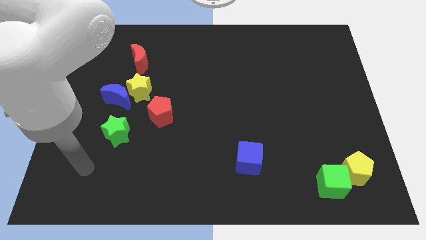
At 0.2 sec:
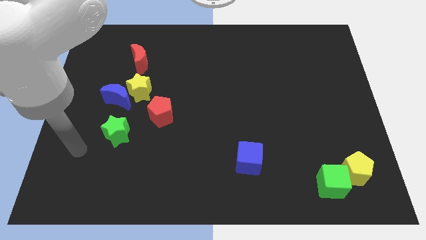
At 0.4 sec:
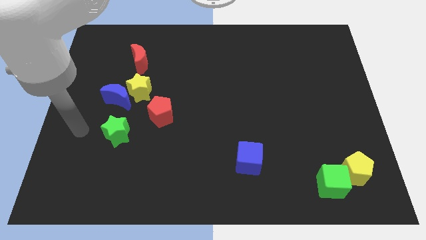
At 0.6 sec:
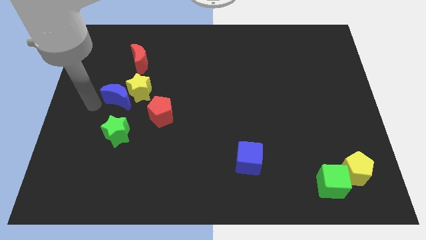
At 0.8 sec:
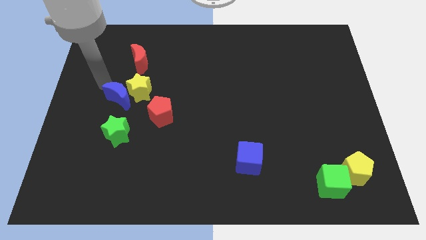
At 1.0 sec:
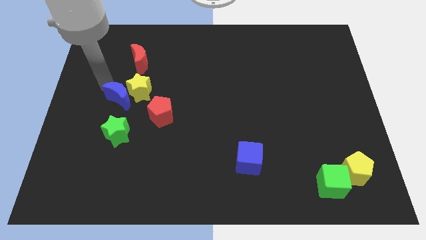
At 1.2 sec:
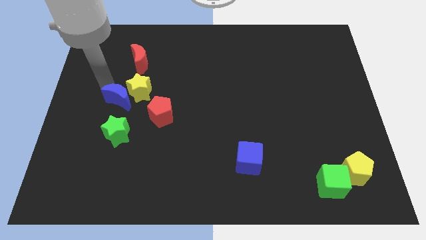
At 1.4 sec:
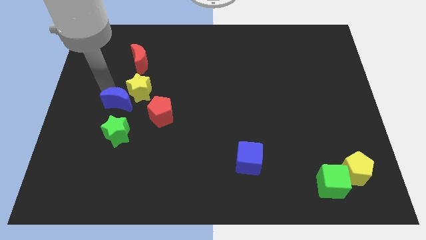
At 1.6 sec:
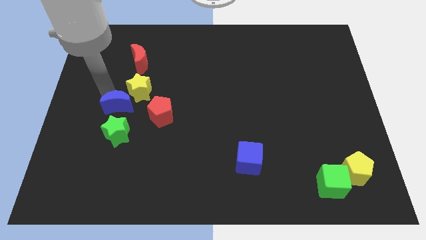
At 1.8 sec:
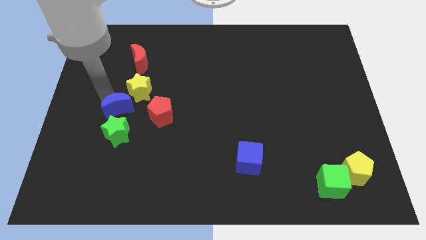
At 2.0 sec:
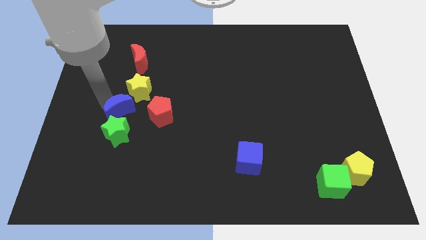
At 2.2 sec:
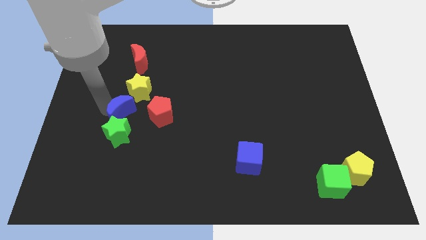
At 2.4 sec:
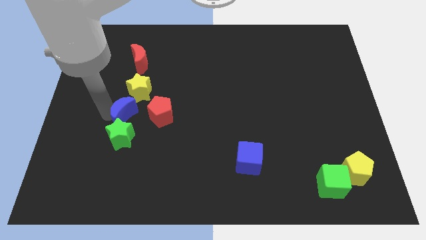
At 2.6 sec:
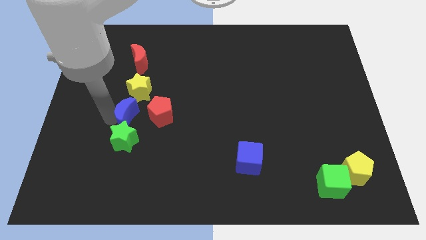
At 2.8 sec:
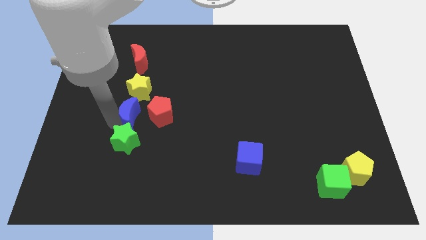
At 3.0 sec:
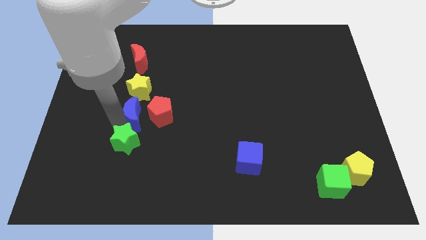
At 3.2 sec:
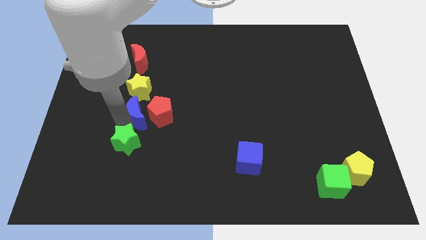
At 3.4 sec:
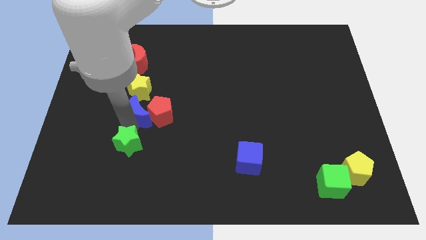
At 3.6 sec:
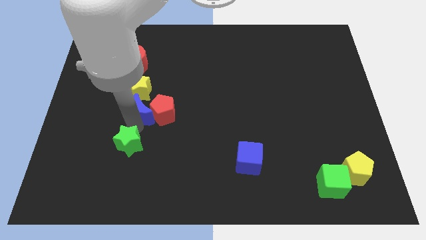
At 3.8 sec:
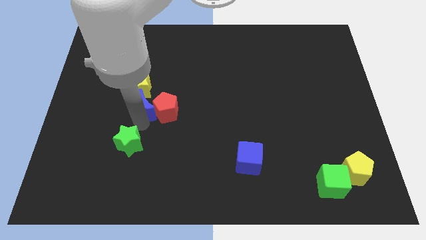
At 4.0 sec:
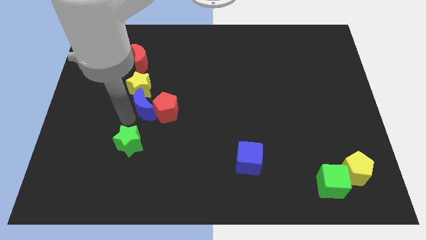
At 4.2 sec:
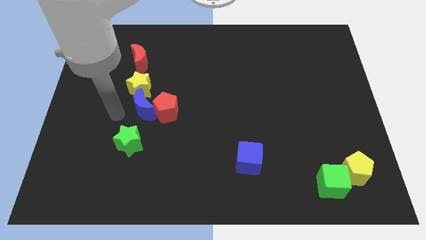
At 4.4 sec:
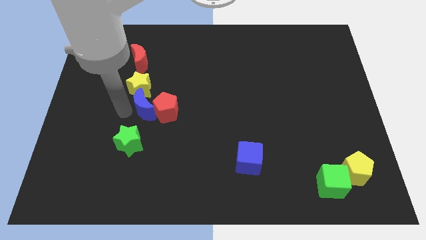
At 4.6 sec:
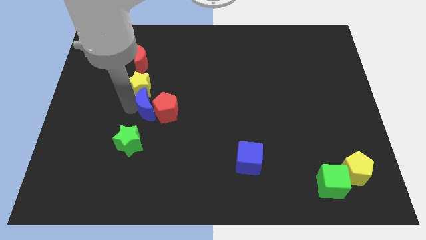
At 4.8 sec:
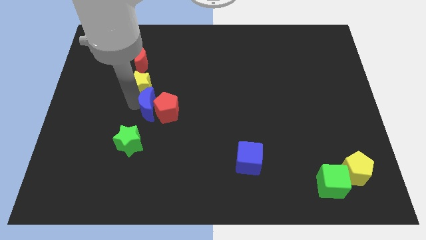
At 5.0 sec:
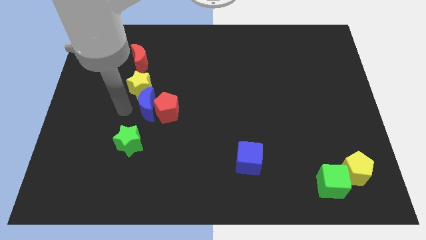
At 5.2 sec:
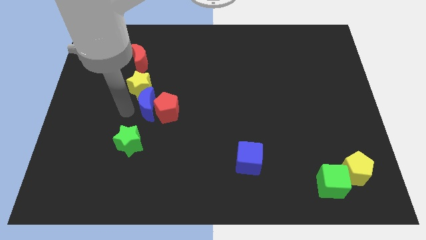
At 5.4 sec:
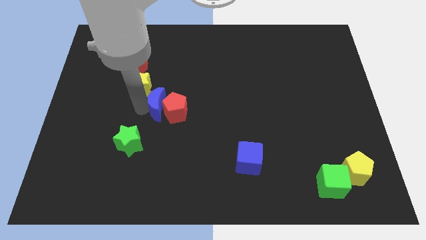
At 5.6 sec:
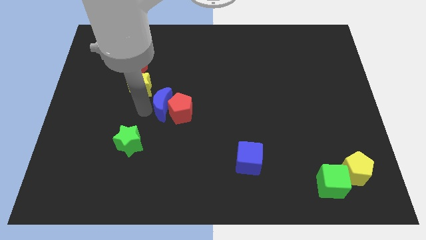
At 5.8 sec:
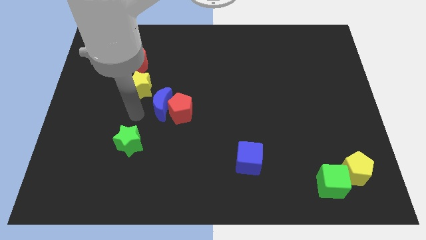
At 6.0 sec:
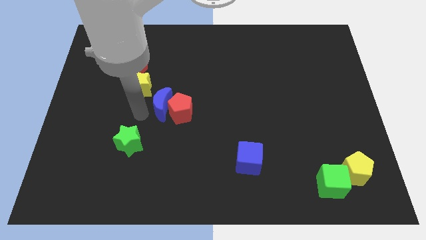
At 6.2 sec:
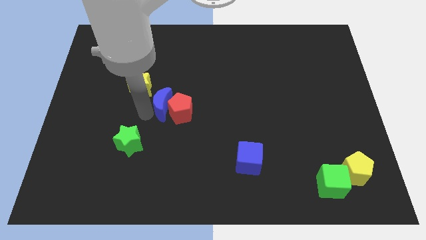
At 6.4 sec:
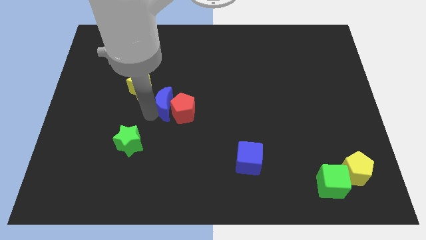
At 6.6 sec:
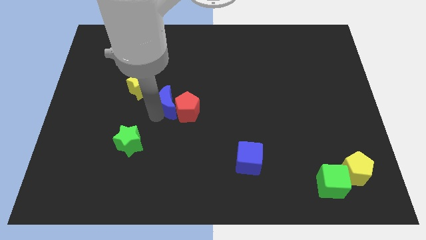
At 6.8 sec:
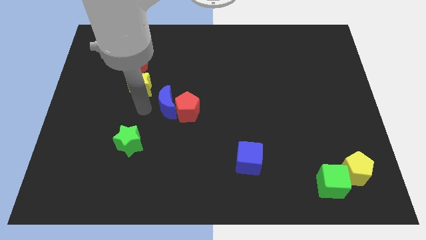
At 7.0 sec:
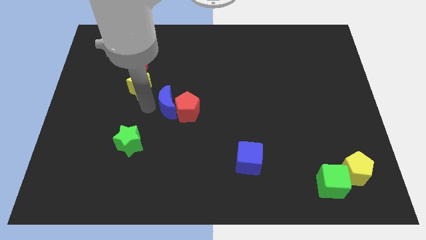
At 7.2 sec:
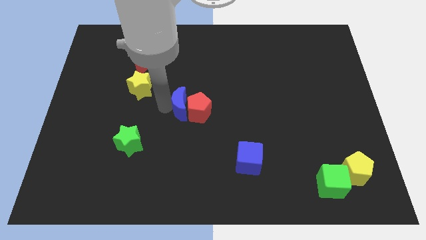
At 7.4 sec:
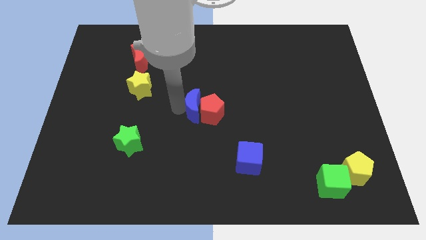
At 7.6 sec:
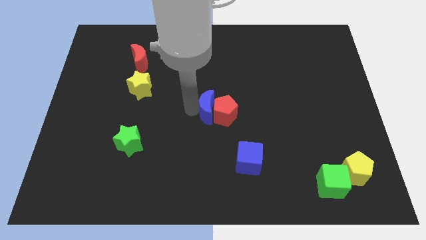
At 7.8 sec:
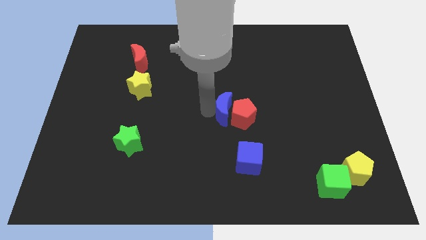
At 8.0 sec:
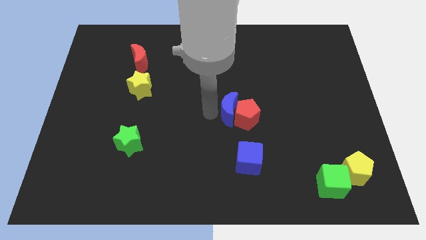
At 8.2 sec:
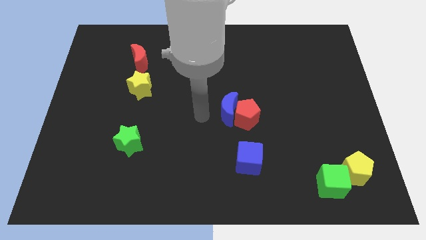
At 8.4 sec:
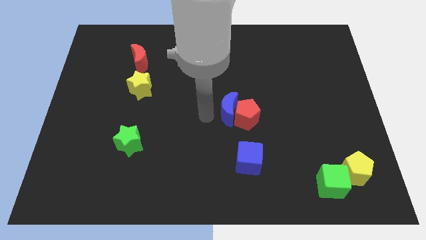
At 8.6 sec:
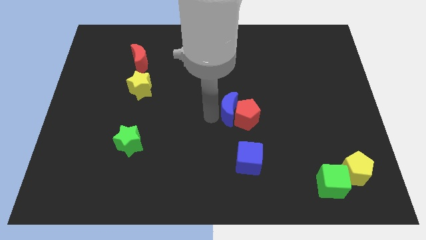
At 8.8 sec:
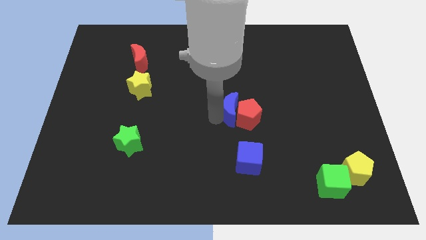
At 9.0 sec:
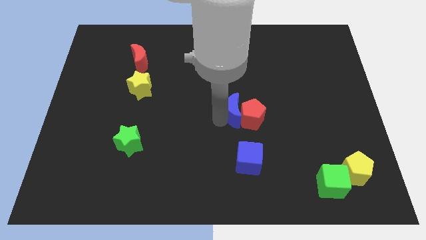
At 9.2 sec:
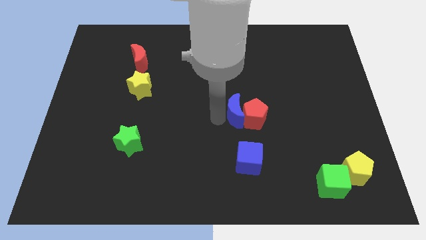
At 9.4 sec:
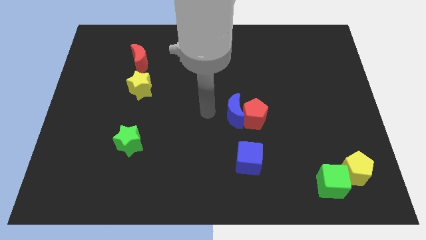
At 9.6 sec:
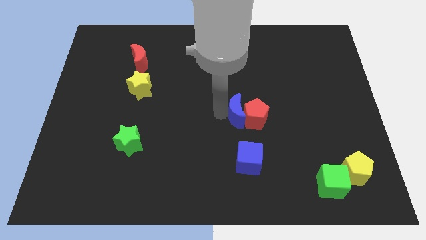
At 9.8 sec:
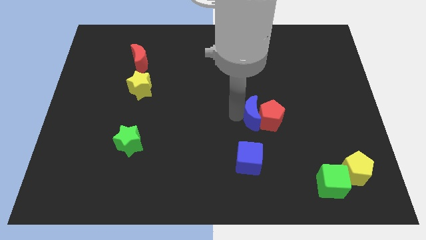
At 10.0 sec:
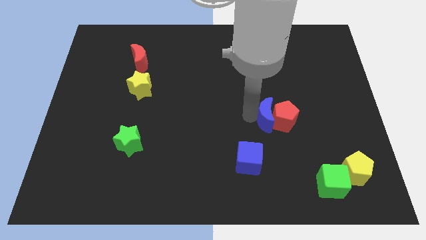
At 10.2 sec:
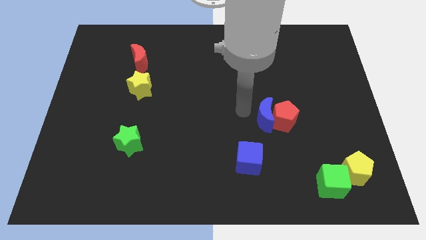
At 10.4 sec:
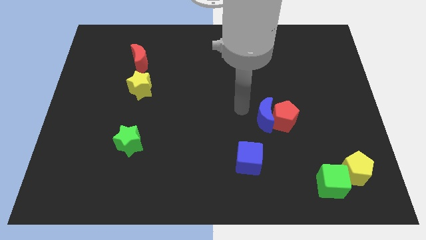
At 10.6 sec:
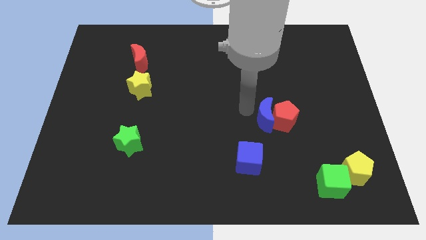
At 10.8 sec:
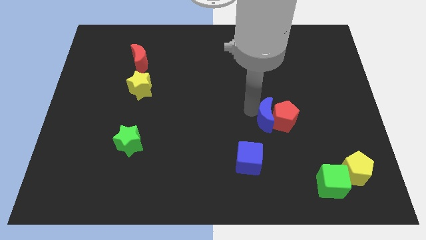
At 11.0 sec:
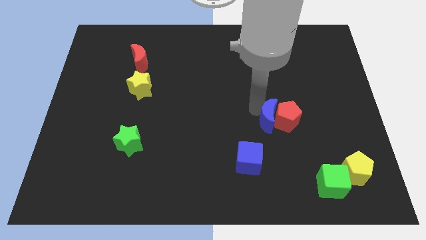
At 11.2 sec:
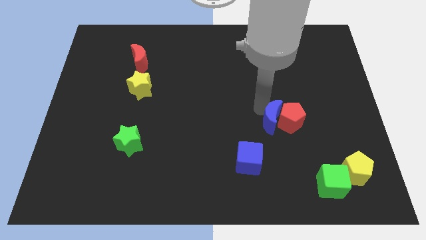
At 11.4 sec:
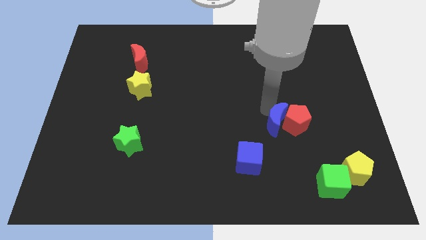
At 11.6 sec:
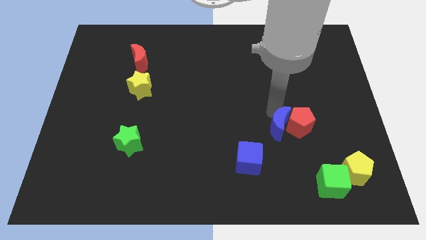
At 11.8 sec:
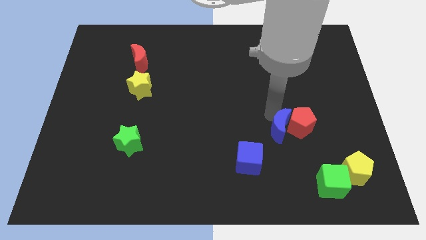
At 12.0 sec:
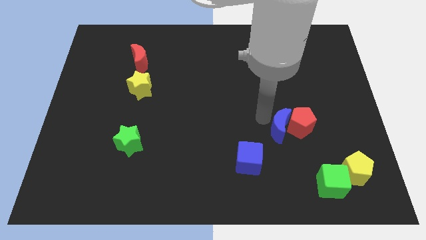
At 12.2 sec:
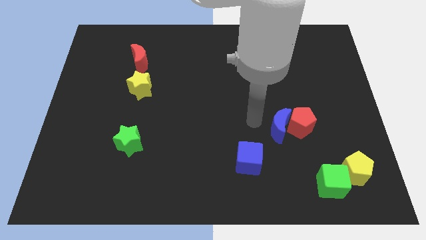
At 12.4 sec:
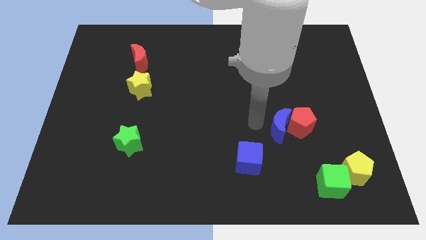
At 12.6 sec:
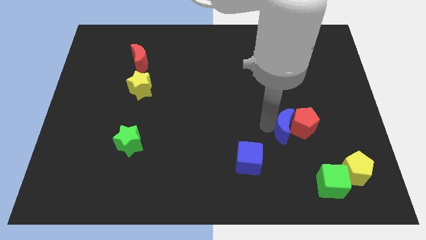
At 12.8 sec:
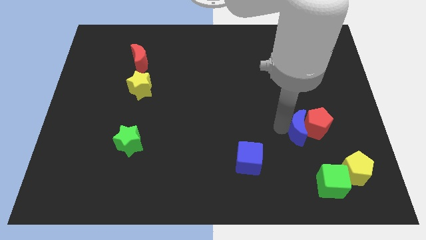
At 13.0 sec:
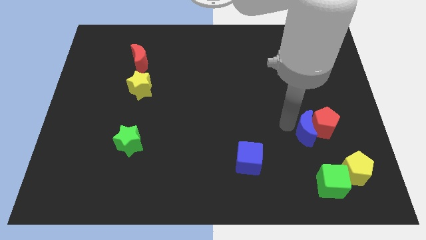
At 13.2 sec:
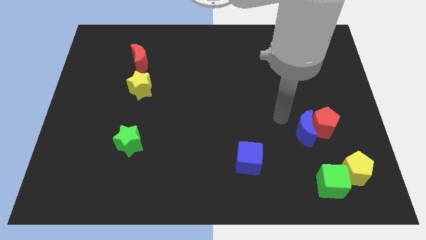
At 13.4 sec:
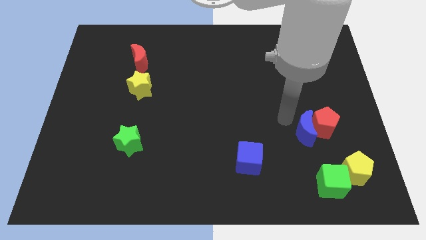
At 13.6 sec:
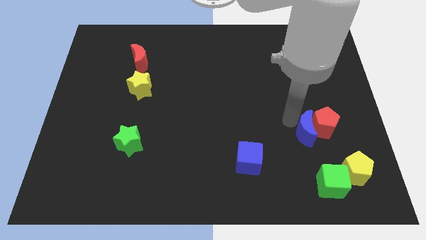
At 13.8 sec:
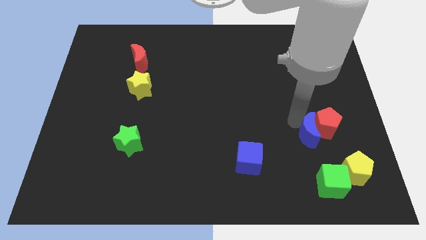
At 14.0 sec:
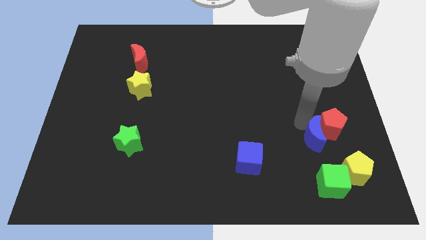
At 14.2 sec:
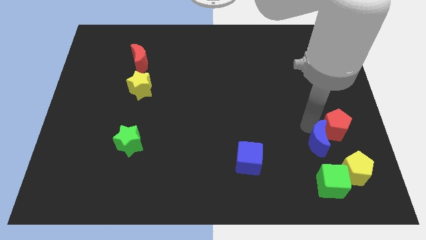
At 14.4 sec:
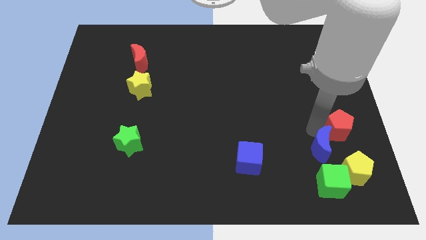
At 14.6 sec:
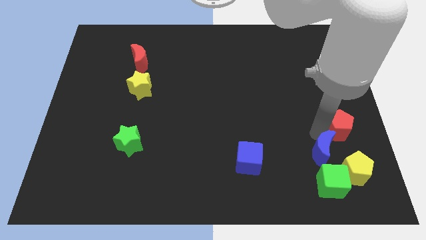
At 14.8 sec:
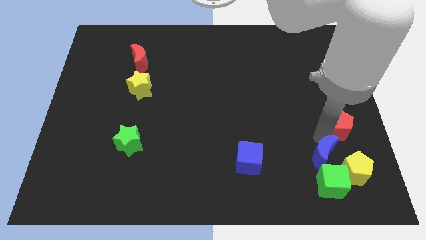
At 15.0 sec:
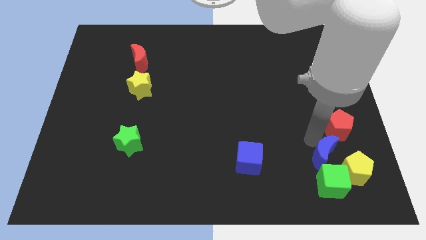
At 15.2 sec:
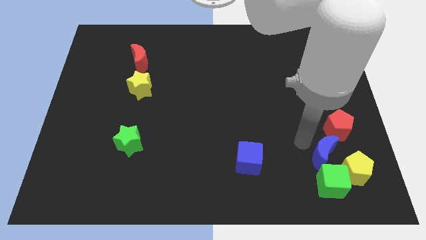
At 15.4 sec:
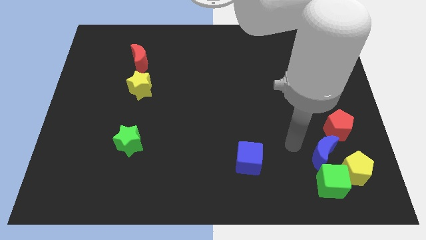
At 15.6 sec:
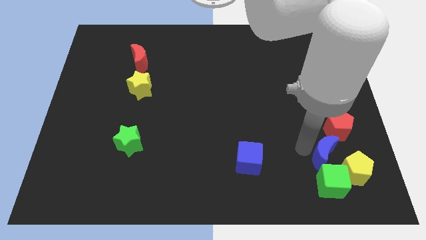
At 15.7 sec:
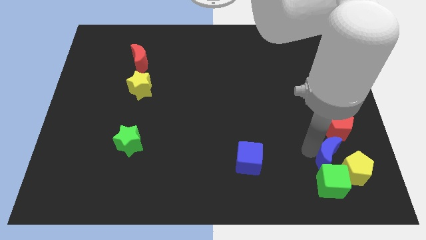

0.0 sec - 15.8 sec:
push the blue moon towards the yellow pentagon
